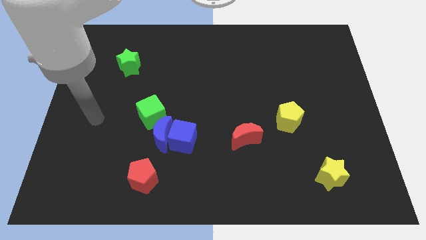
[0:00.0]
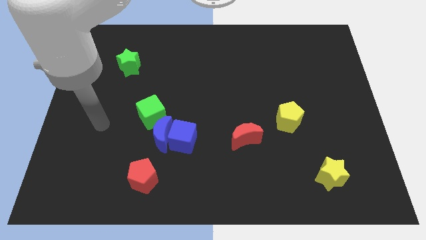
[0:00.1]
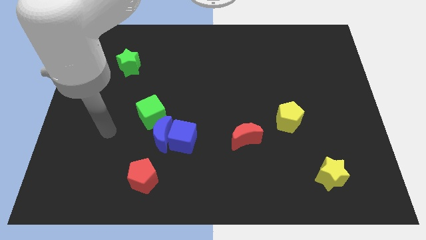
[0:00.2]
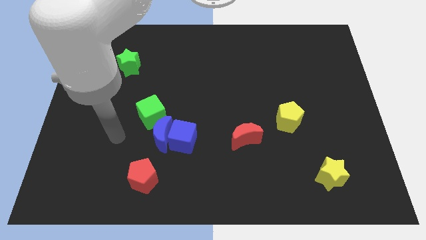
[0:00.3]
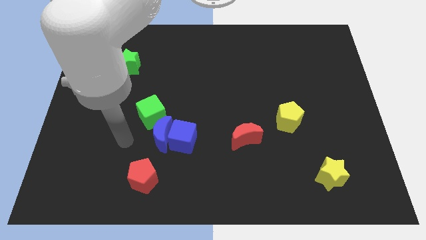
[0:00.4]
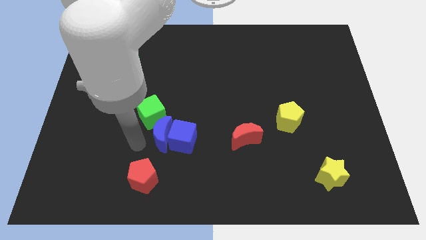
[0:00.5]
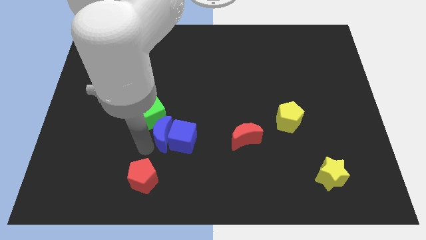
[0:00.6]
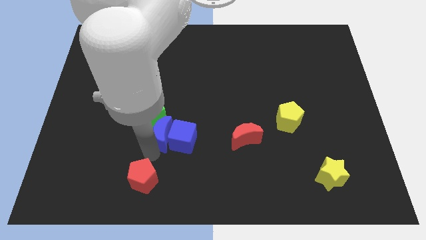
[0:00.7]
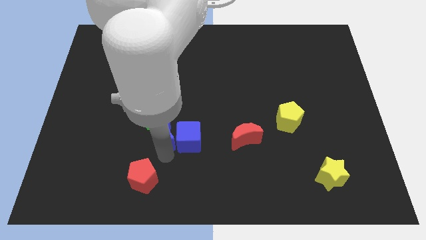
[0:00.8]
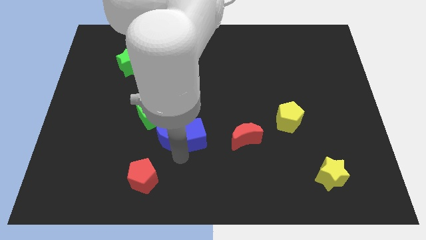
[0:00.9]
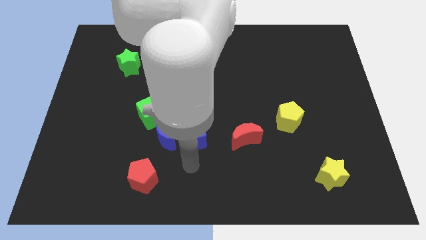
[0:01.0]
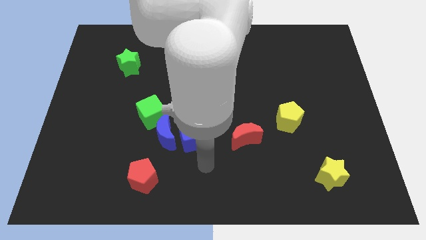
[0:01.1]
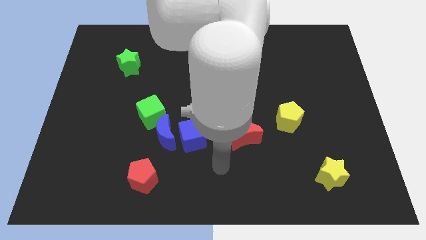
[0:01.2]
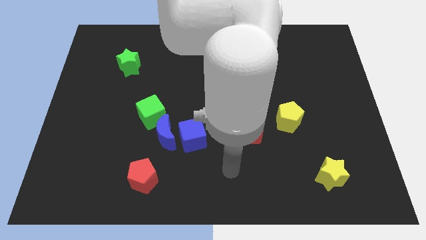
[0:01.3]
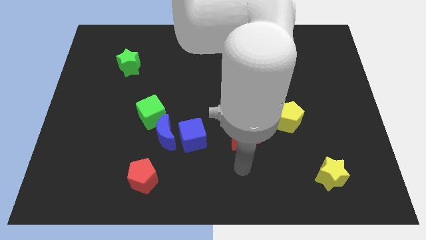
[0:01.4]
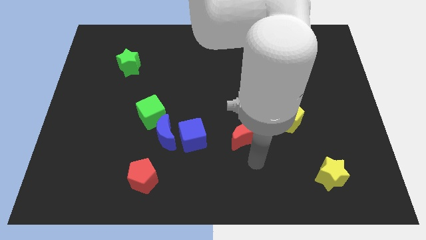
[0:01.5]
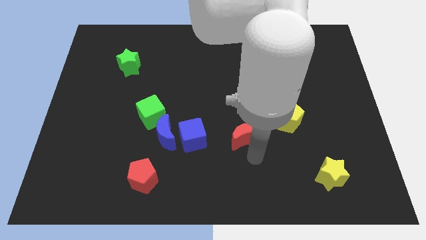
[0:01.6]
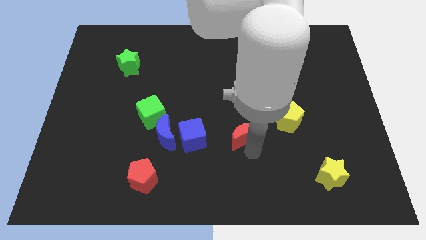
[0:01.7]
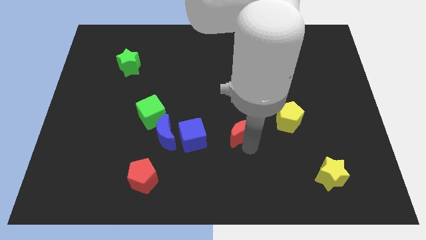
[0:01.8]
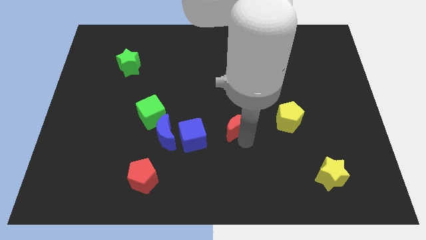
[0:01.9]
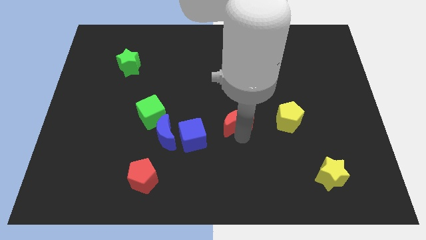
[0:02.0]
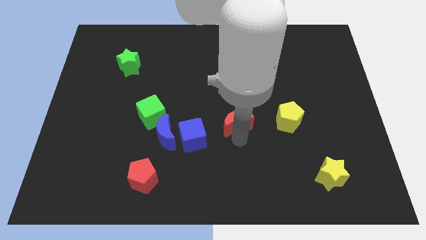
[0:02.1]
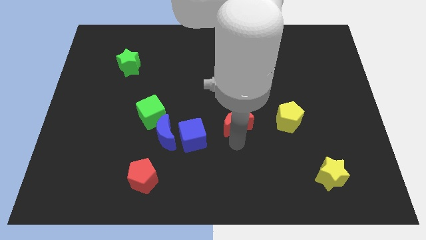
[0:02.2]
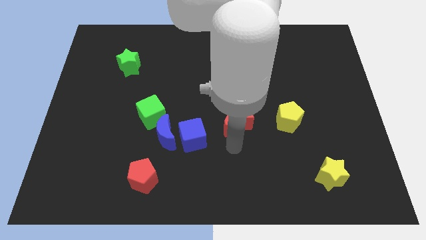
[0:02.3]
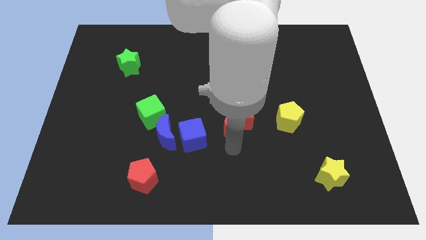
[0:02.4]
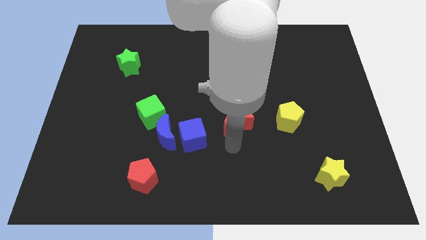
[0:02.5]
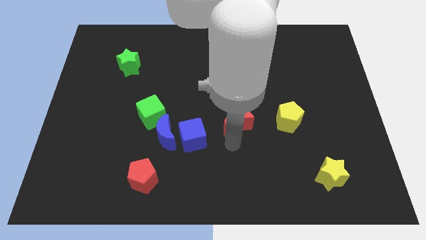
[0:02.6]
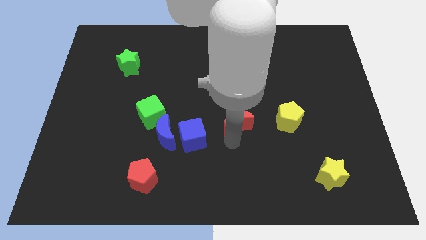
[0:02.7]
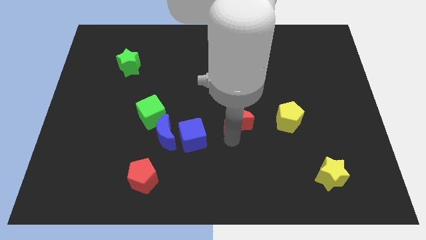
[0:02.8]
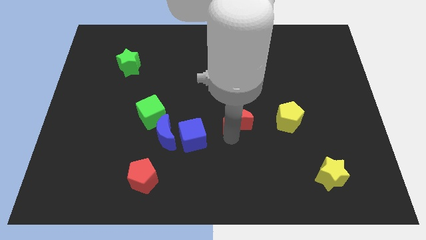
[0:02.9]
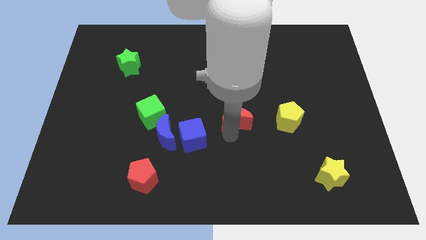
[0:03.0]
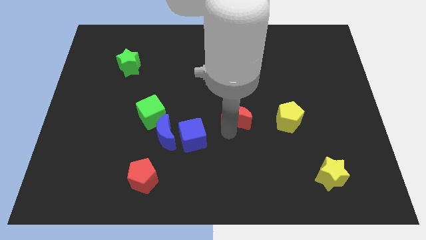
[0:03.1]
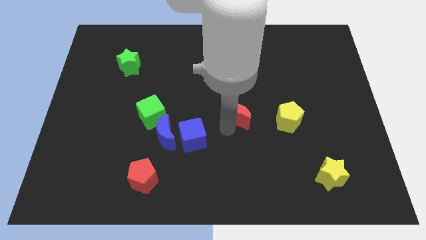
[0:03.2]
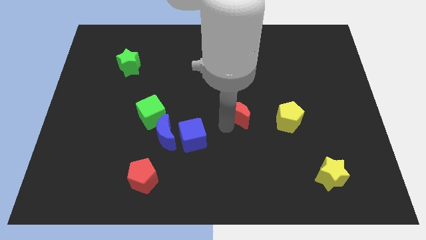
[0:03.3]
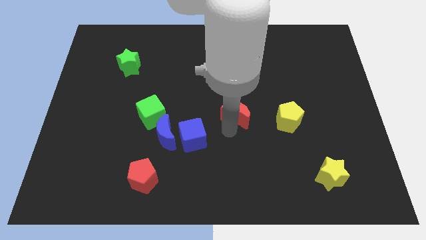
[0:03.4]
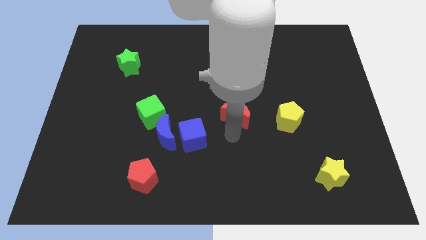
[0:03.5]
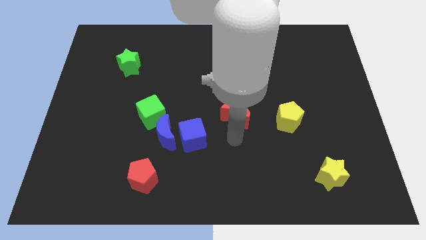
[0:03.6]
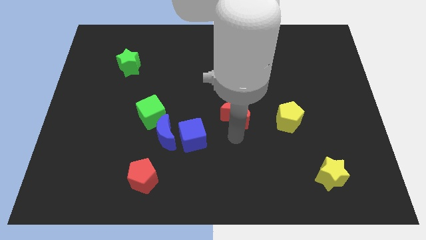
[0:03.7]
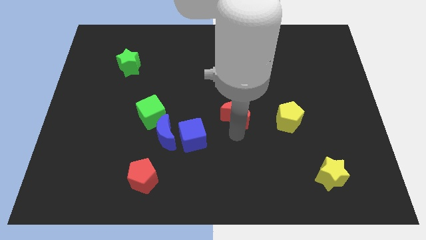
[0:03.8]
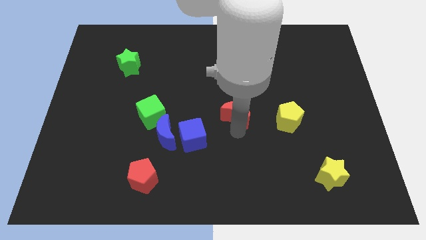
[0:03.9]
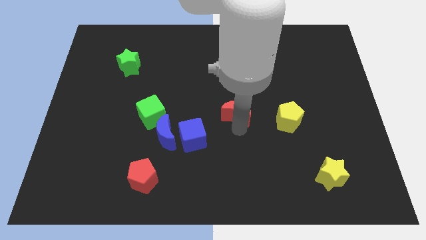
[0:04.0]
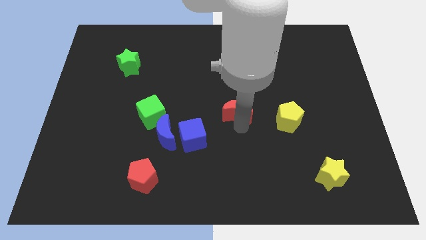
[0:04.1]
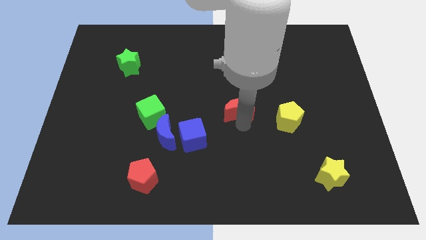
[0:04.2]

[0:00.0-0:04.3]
move the red moon somewhat up

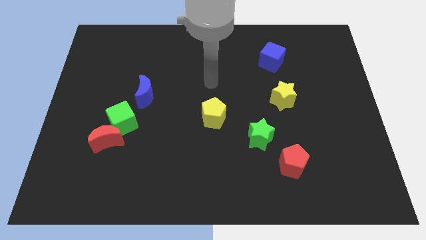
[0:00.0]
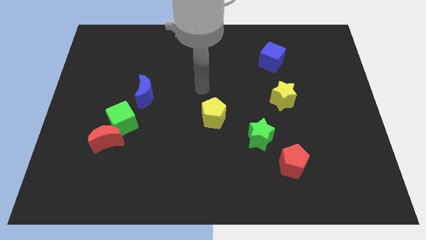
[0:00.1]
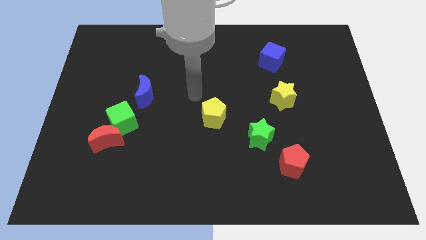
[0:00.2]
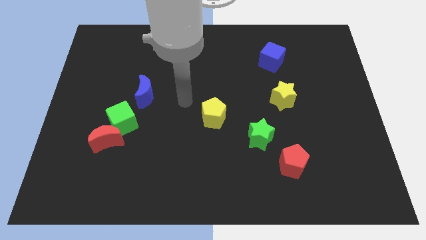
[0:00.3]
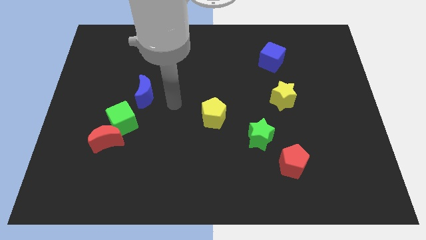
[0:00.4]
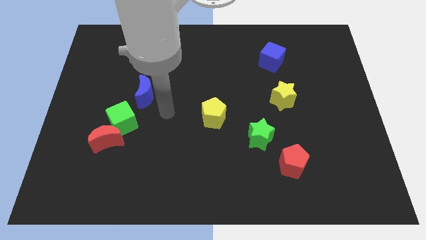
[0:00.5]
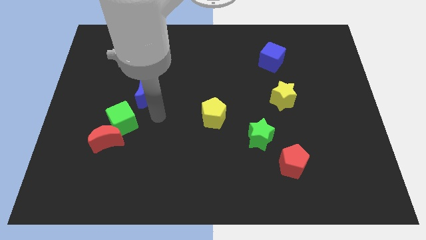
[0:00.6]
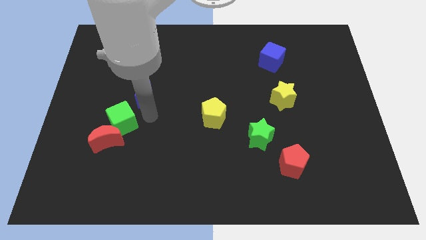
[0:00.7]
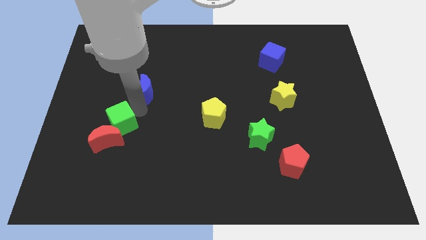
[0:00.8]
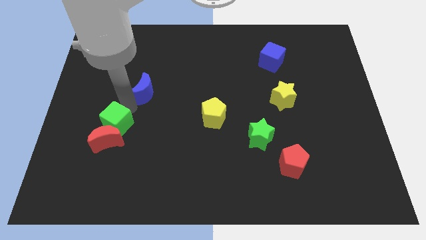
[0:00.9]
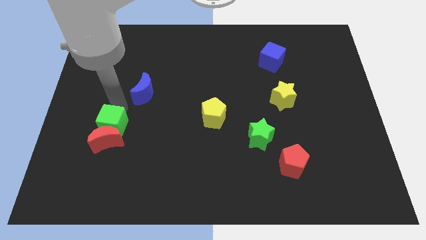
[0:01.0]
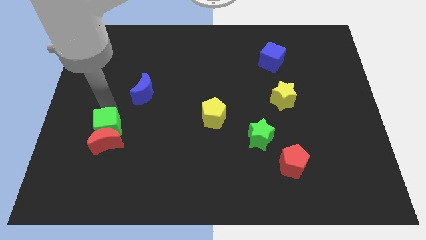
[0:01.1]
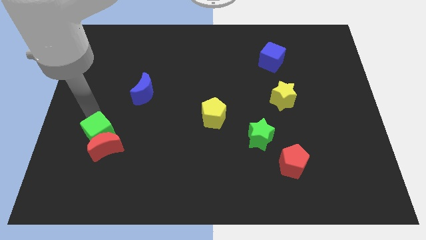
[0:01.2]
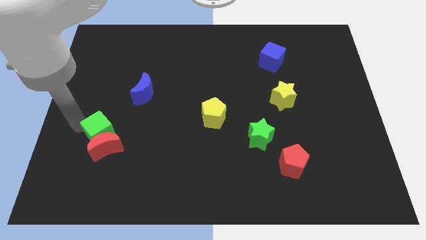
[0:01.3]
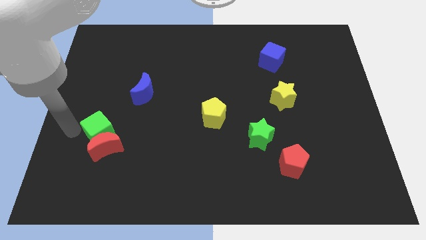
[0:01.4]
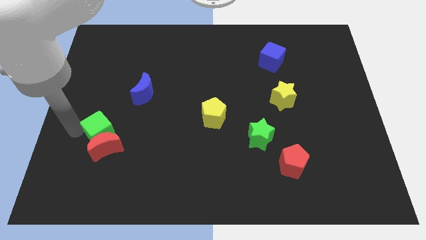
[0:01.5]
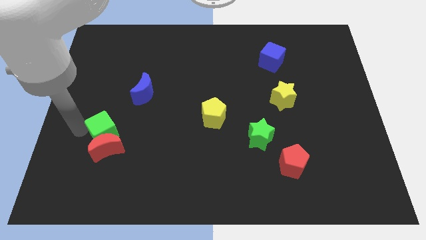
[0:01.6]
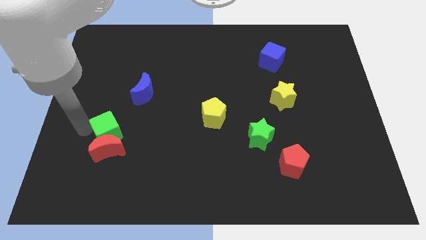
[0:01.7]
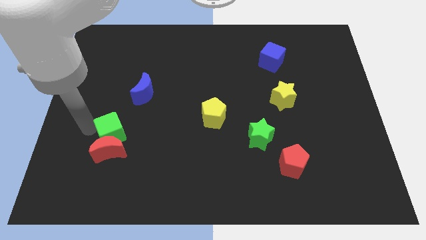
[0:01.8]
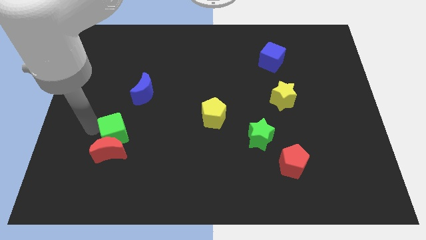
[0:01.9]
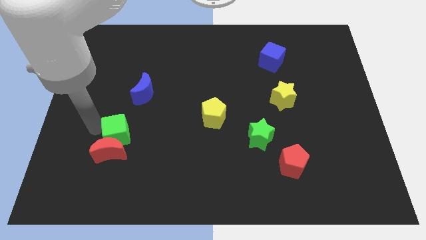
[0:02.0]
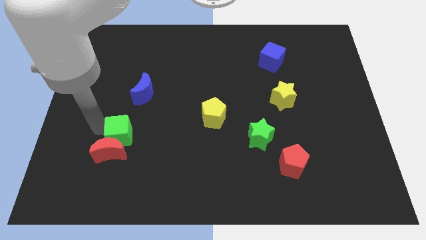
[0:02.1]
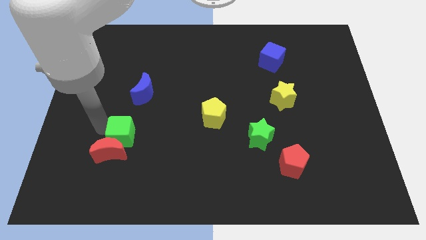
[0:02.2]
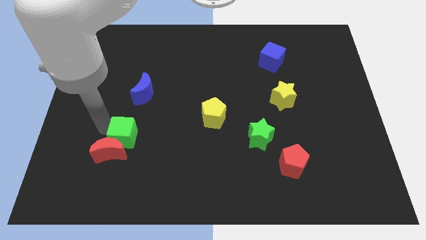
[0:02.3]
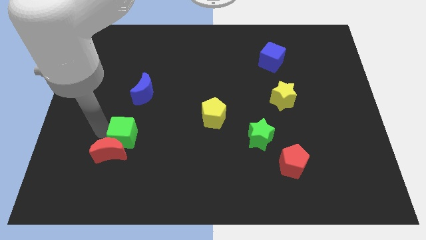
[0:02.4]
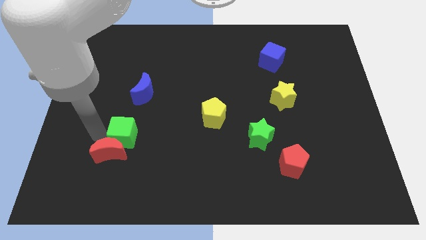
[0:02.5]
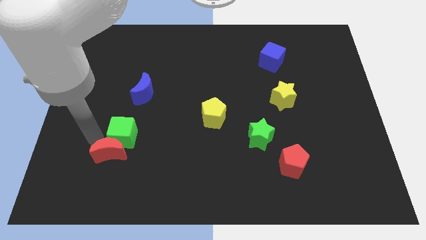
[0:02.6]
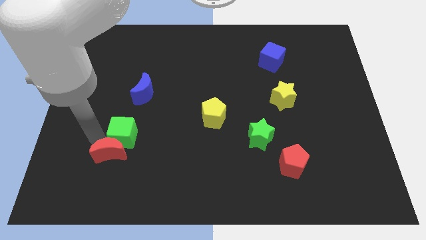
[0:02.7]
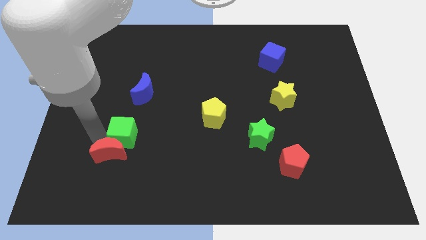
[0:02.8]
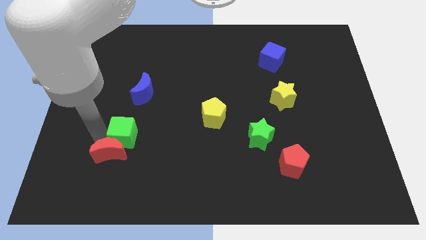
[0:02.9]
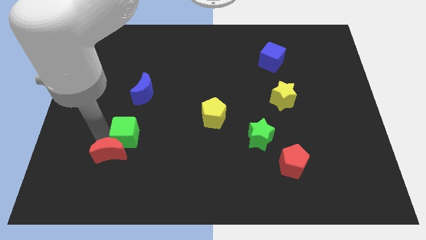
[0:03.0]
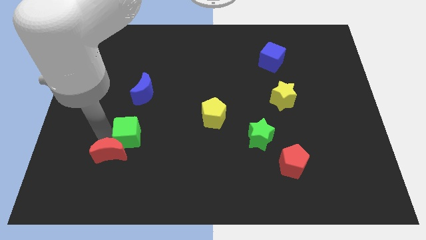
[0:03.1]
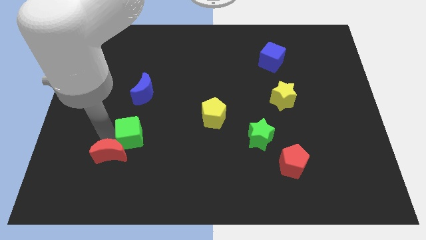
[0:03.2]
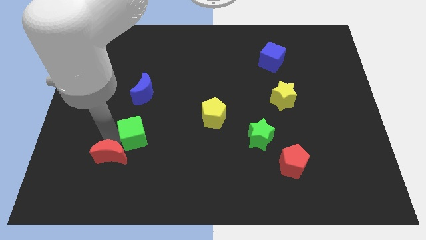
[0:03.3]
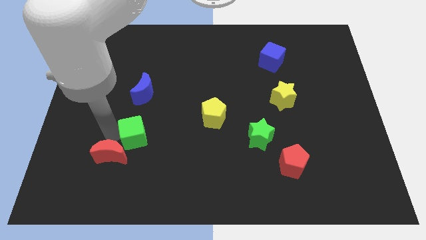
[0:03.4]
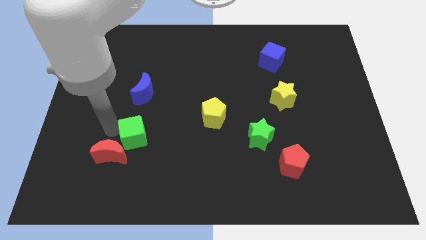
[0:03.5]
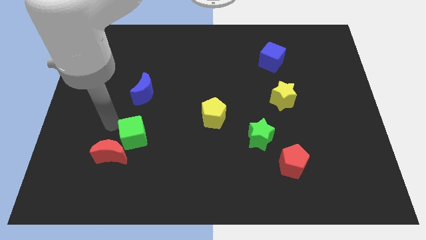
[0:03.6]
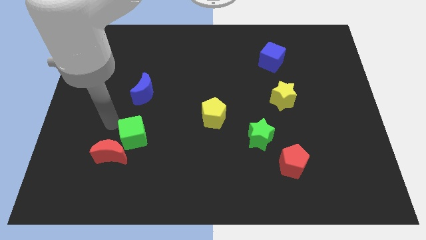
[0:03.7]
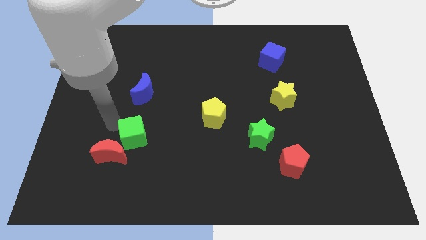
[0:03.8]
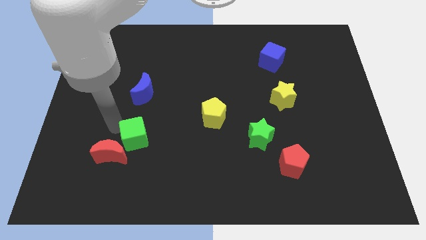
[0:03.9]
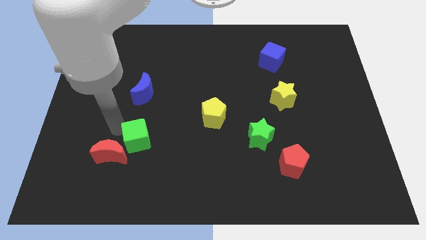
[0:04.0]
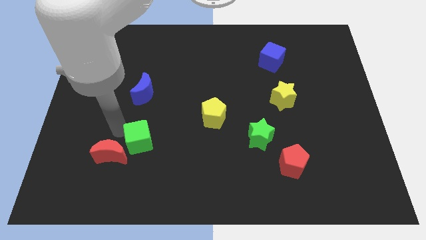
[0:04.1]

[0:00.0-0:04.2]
slightly move the green cube down and right diagonally
